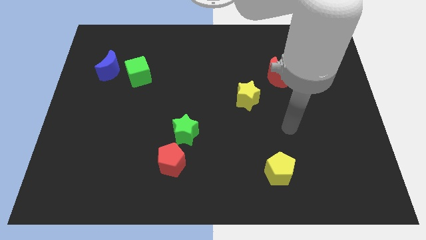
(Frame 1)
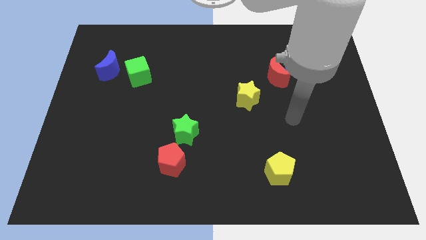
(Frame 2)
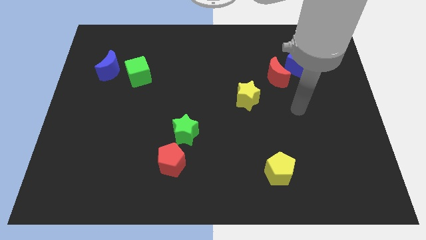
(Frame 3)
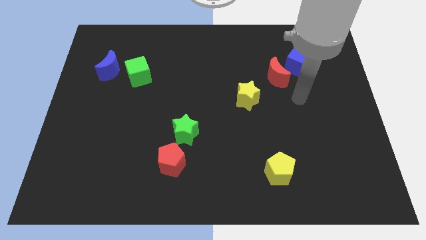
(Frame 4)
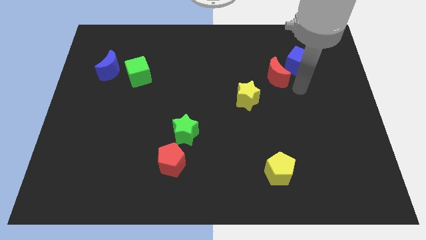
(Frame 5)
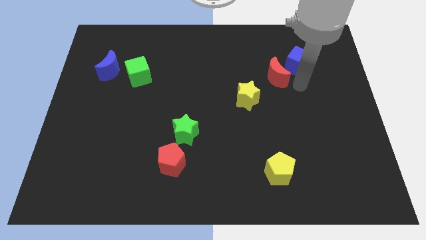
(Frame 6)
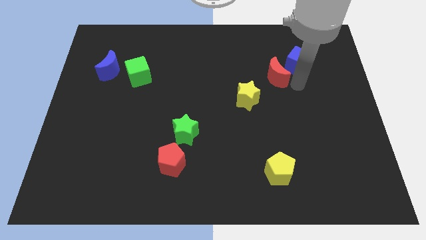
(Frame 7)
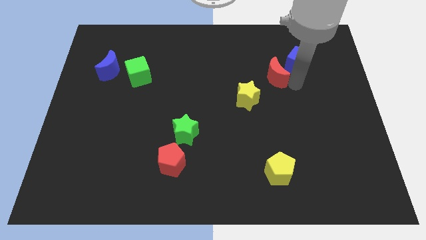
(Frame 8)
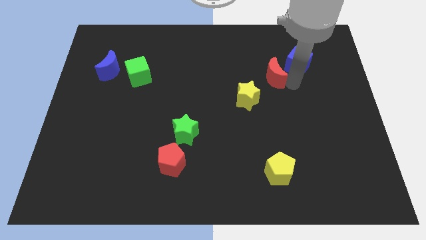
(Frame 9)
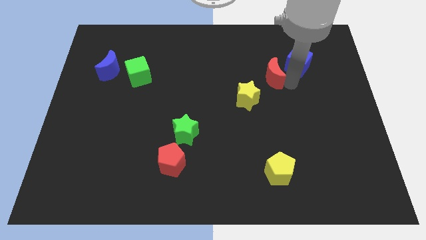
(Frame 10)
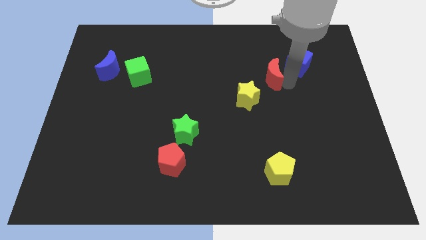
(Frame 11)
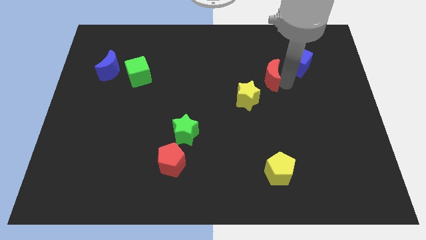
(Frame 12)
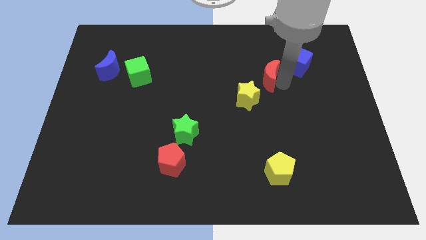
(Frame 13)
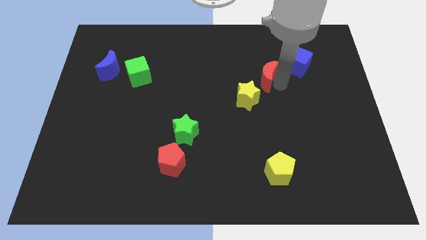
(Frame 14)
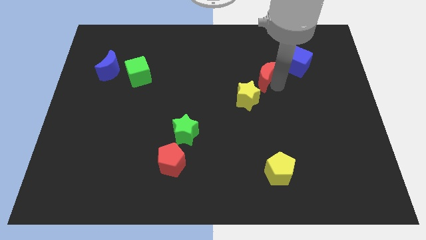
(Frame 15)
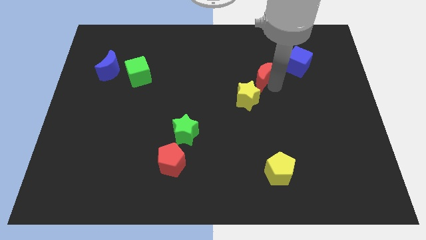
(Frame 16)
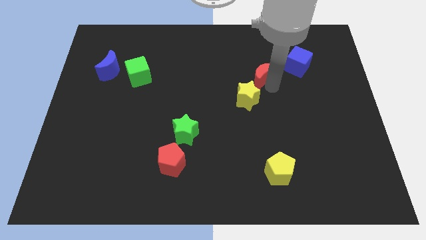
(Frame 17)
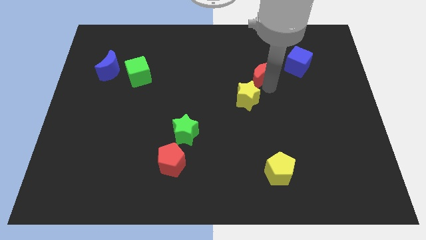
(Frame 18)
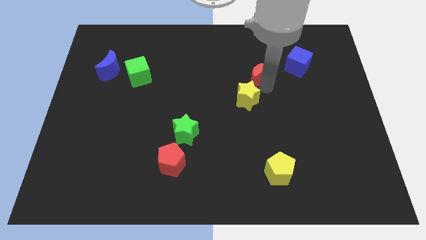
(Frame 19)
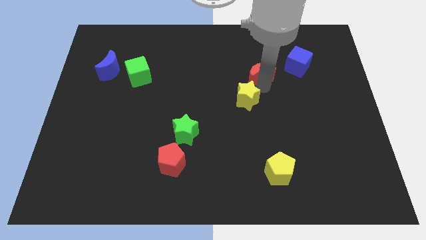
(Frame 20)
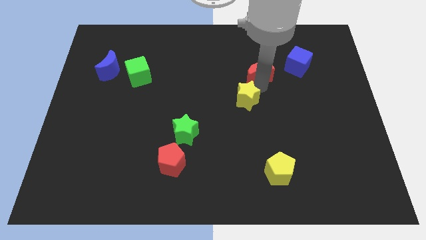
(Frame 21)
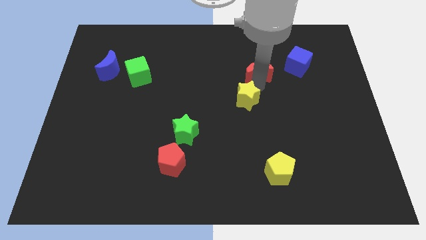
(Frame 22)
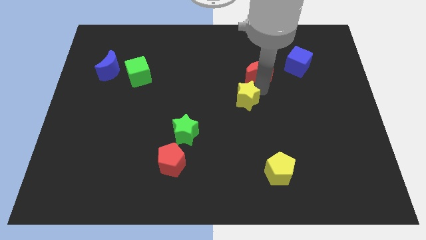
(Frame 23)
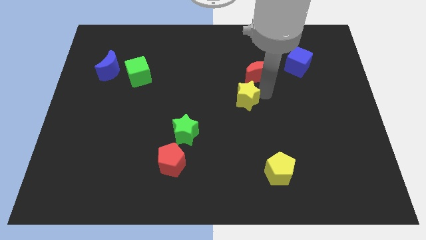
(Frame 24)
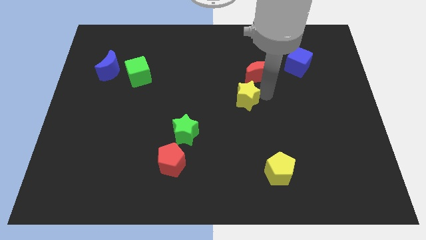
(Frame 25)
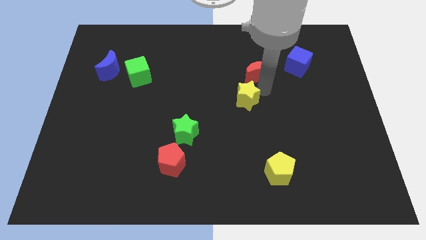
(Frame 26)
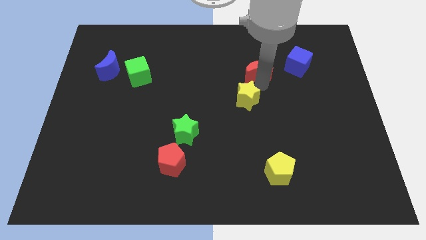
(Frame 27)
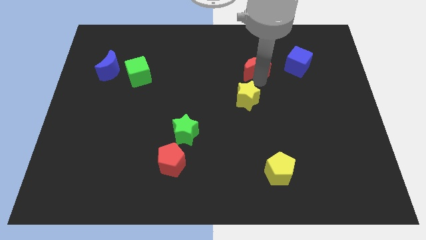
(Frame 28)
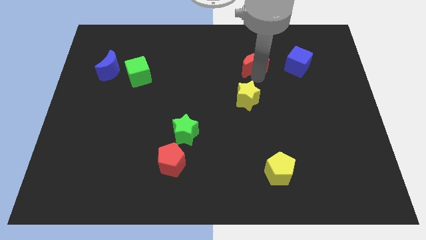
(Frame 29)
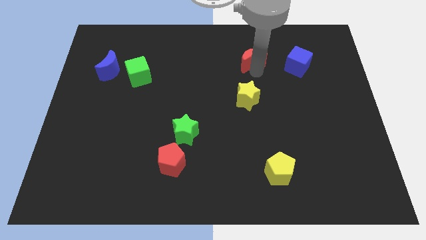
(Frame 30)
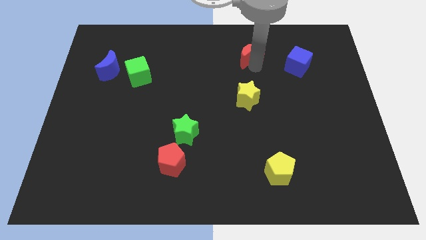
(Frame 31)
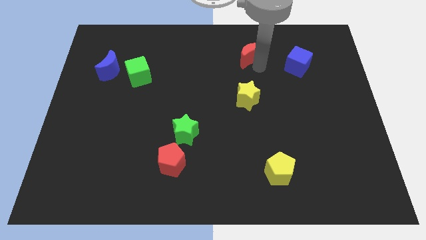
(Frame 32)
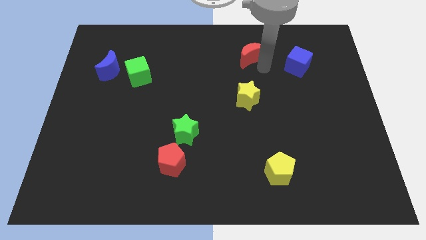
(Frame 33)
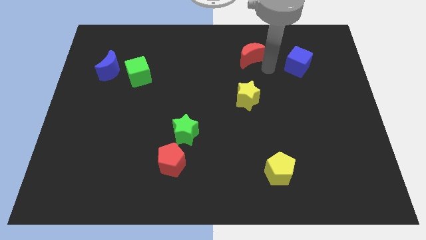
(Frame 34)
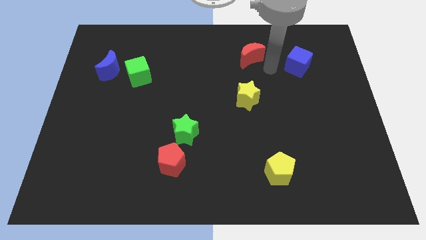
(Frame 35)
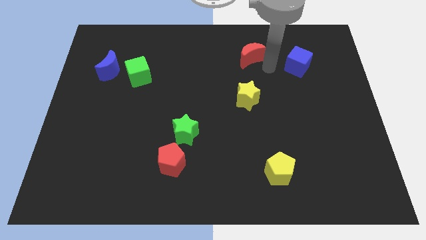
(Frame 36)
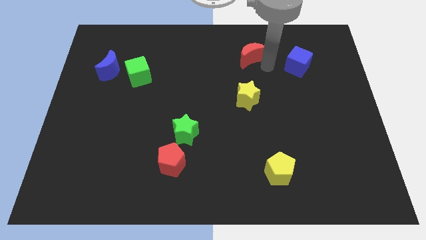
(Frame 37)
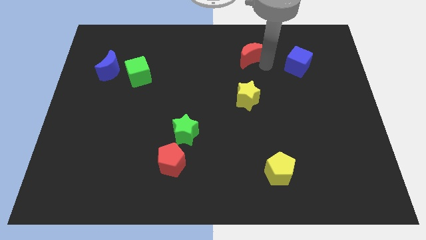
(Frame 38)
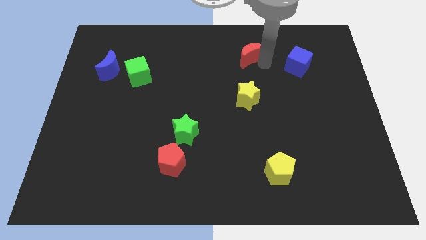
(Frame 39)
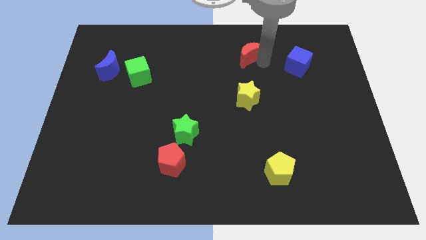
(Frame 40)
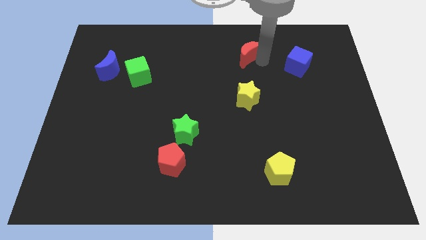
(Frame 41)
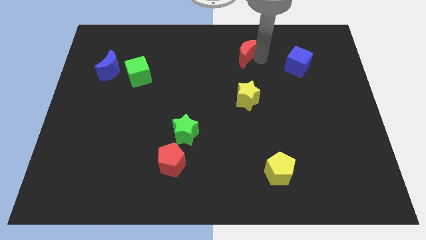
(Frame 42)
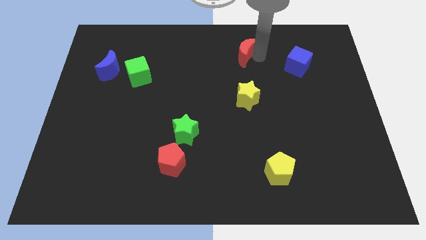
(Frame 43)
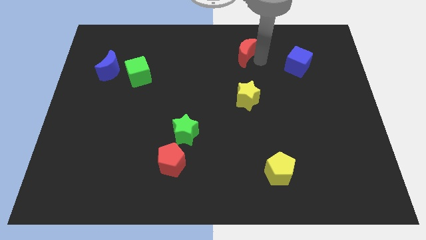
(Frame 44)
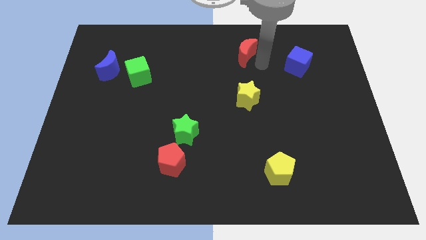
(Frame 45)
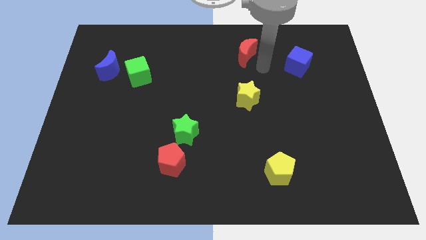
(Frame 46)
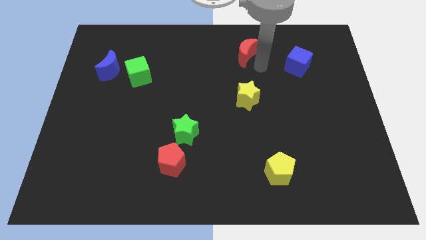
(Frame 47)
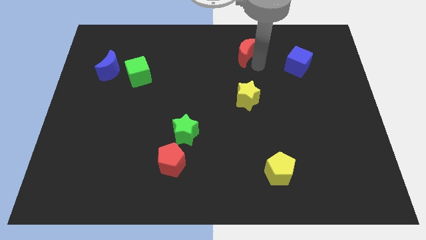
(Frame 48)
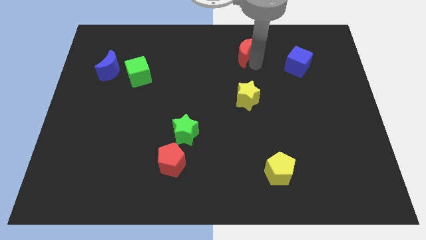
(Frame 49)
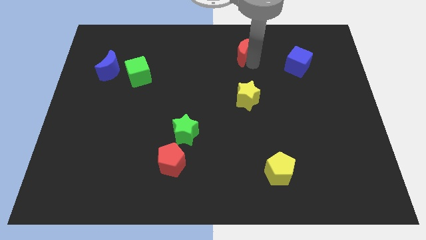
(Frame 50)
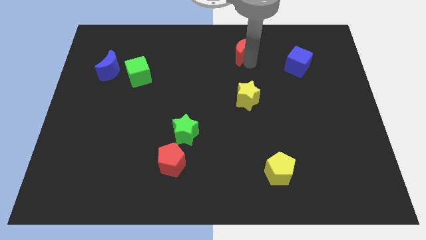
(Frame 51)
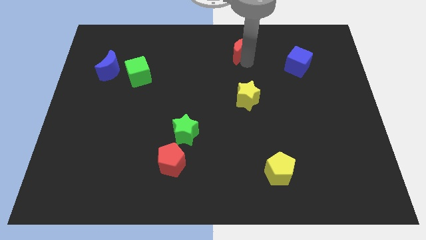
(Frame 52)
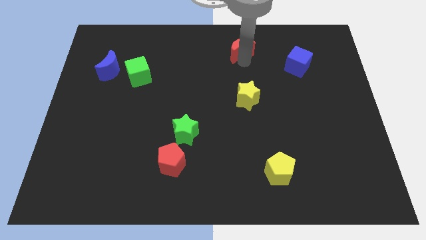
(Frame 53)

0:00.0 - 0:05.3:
put the red moon to the top
